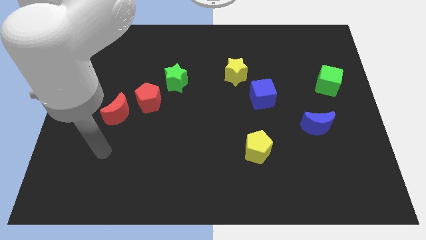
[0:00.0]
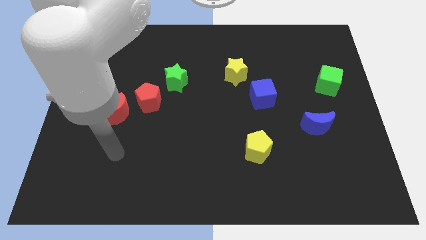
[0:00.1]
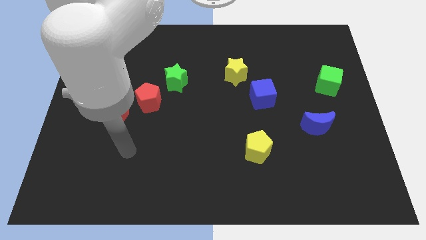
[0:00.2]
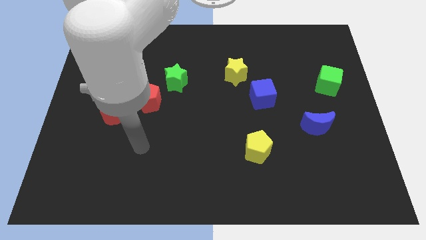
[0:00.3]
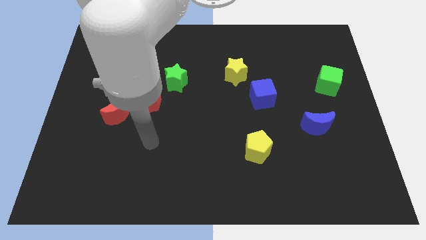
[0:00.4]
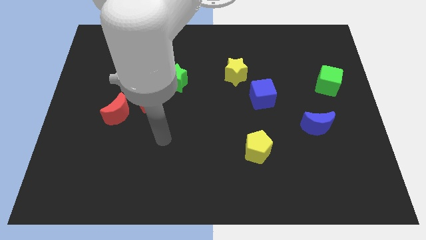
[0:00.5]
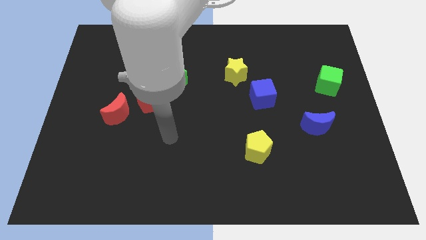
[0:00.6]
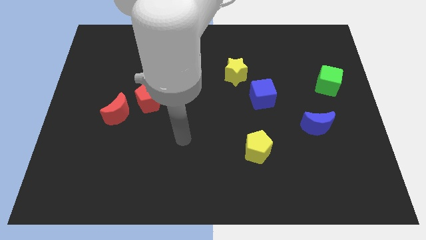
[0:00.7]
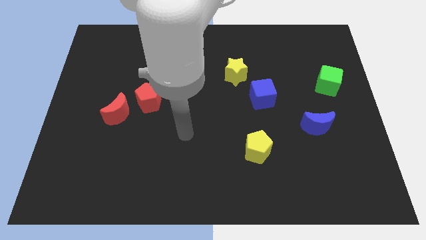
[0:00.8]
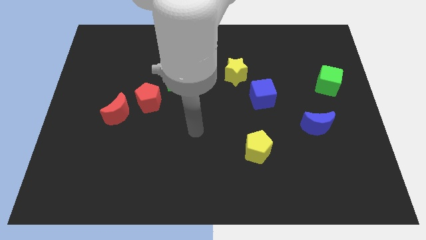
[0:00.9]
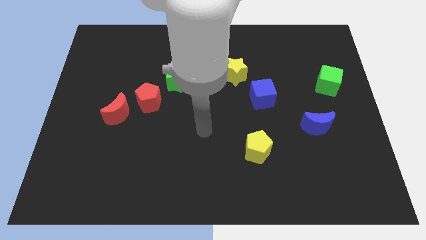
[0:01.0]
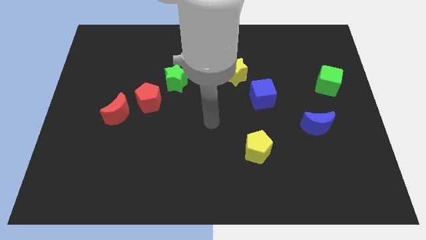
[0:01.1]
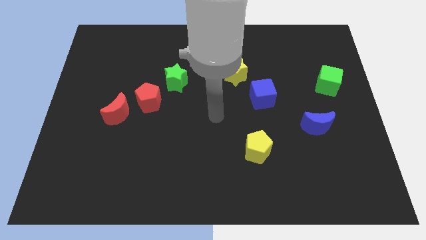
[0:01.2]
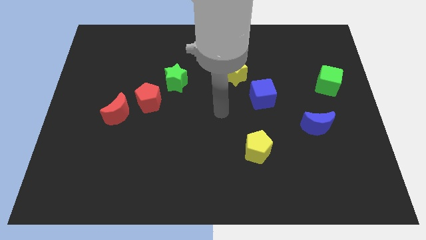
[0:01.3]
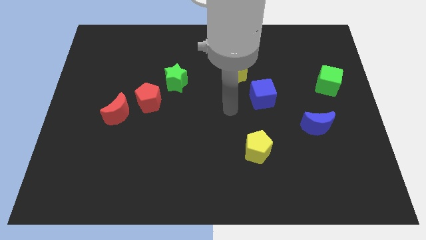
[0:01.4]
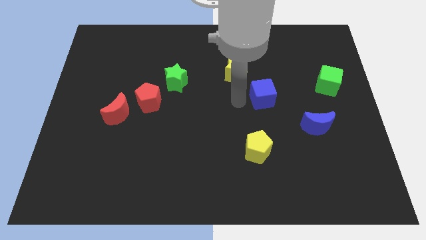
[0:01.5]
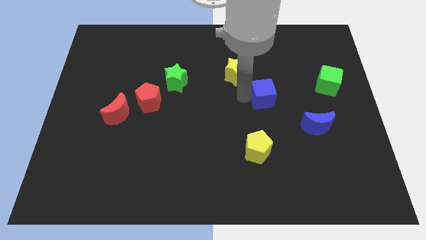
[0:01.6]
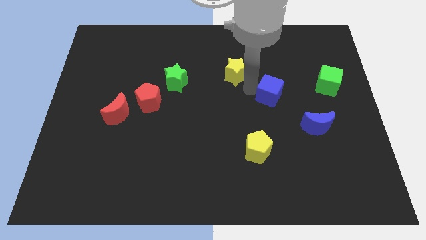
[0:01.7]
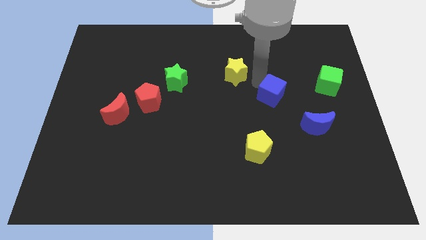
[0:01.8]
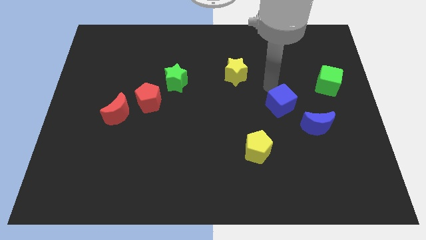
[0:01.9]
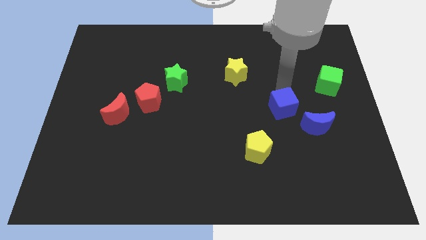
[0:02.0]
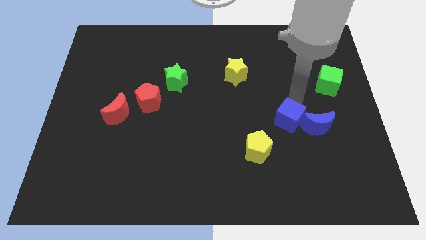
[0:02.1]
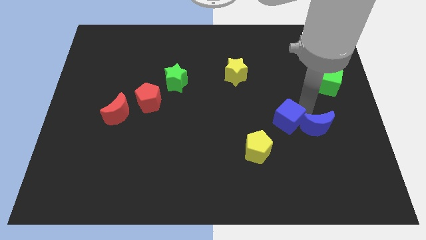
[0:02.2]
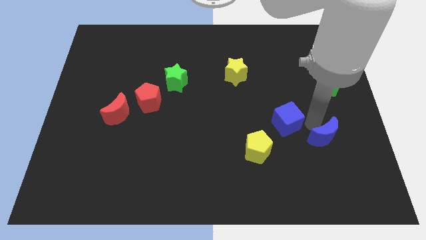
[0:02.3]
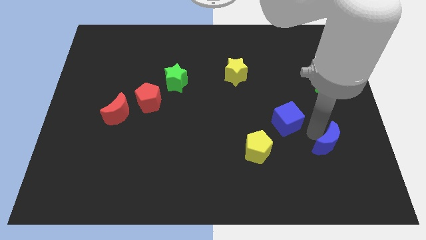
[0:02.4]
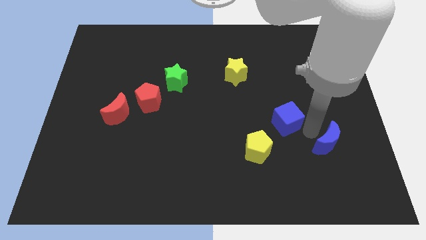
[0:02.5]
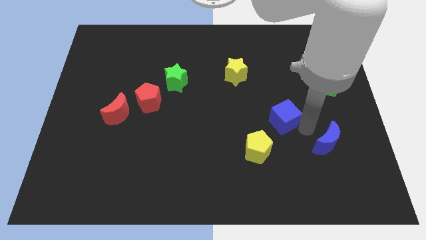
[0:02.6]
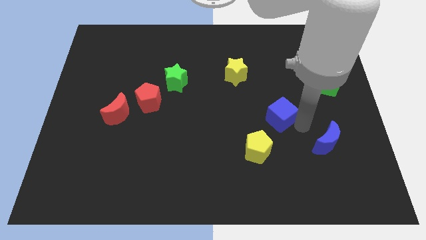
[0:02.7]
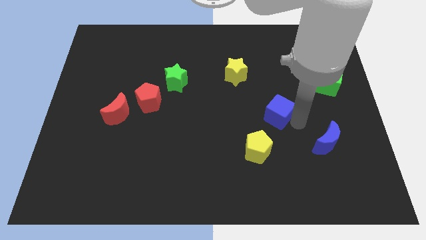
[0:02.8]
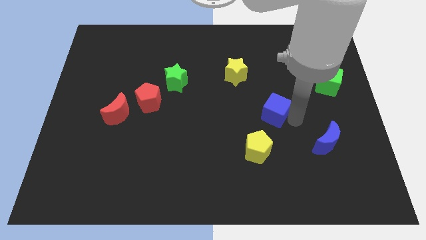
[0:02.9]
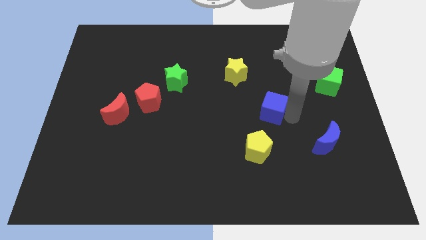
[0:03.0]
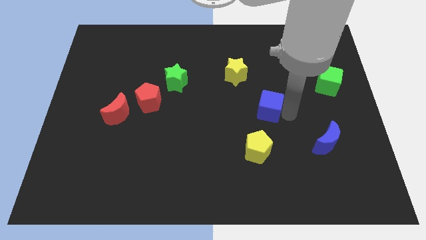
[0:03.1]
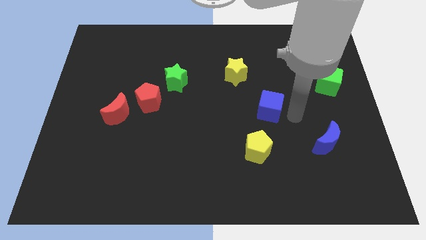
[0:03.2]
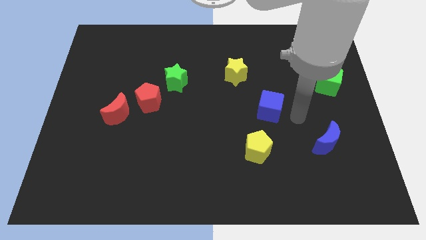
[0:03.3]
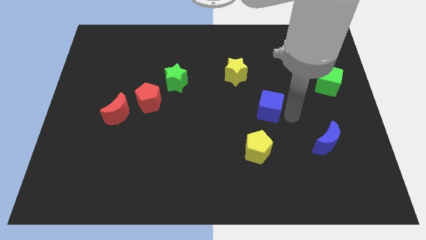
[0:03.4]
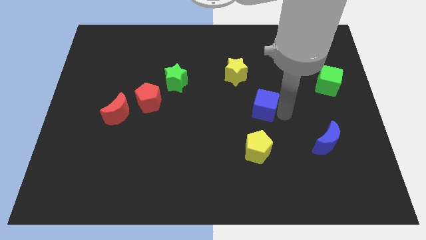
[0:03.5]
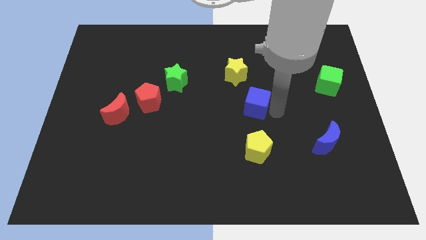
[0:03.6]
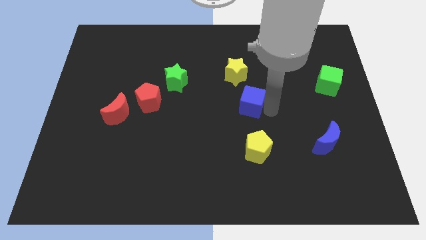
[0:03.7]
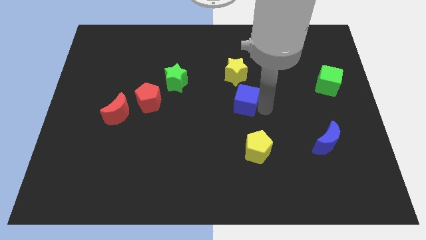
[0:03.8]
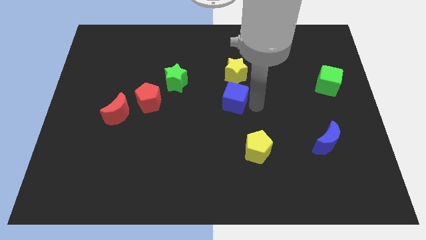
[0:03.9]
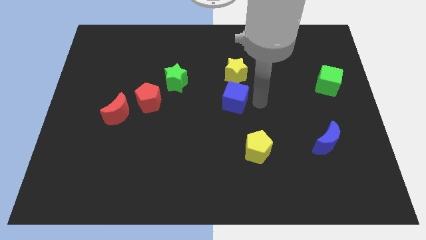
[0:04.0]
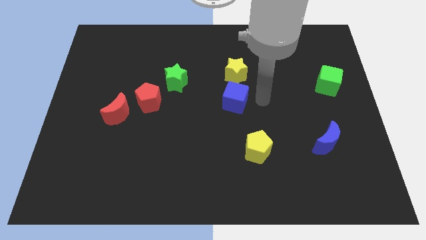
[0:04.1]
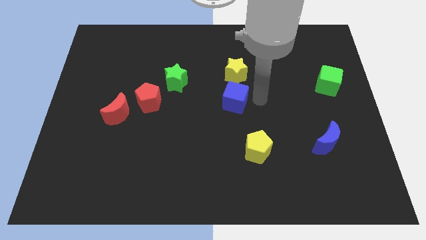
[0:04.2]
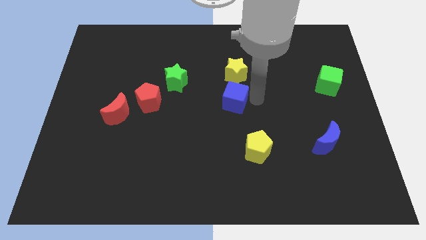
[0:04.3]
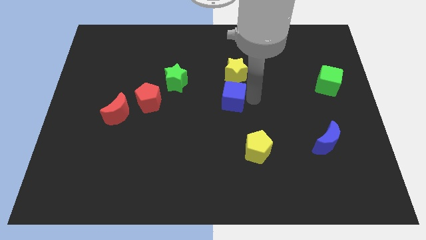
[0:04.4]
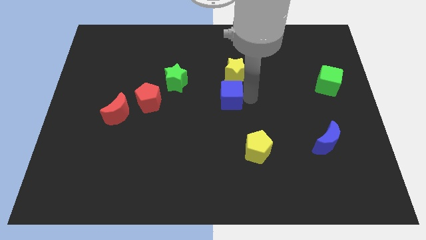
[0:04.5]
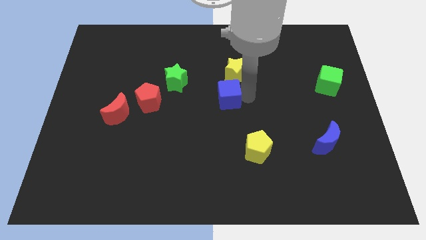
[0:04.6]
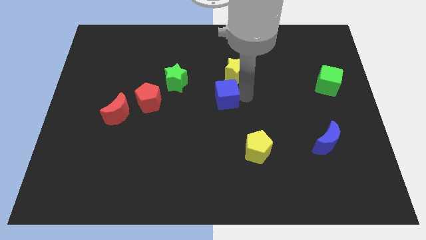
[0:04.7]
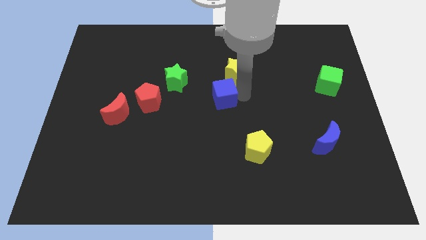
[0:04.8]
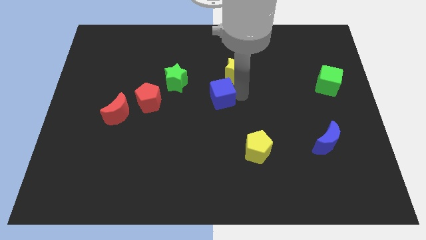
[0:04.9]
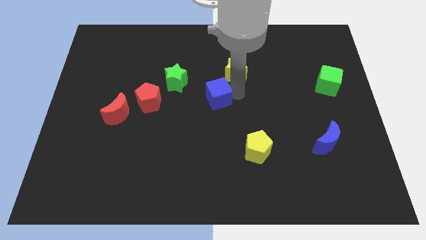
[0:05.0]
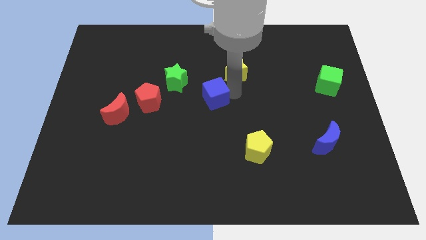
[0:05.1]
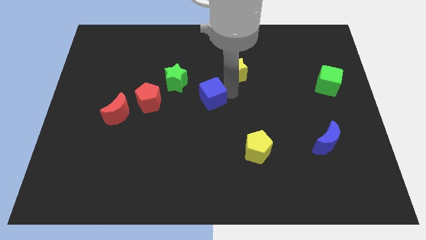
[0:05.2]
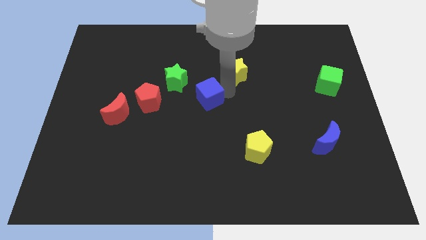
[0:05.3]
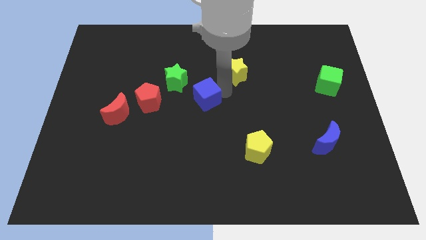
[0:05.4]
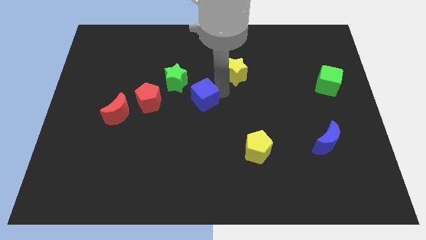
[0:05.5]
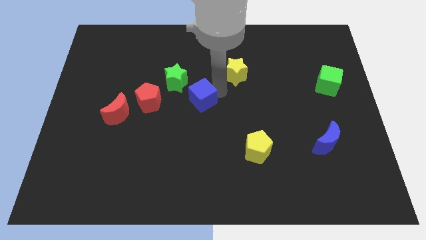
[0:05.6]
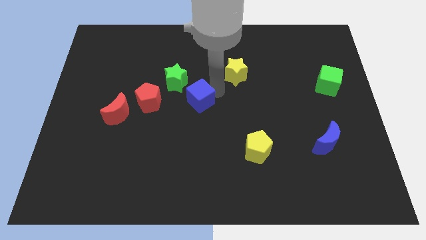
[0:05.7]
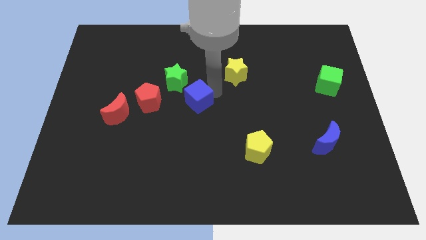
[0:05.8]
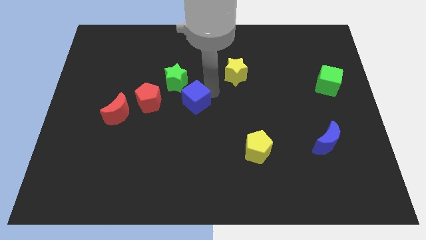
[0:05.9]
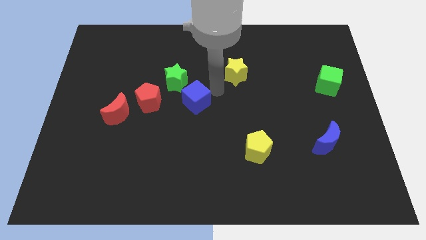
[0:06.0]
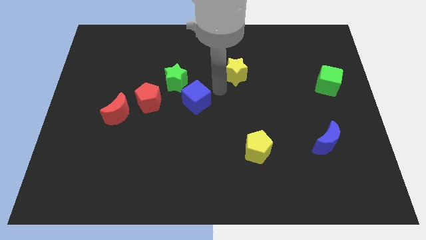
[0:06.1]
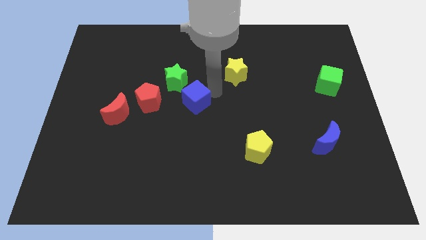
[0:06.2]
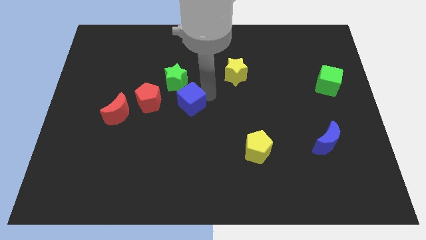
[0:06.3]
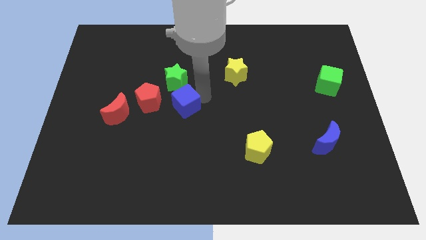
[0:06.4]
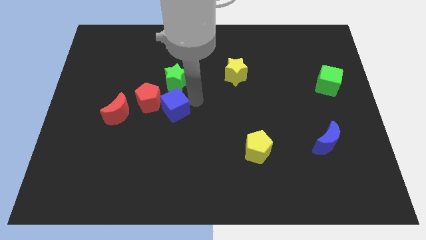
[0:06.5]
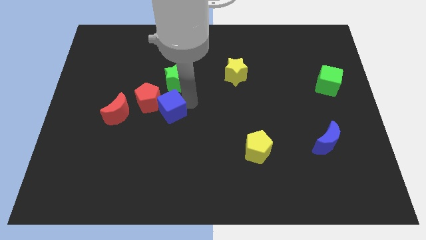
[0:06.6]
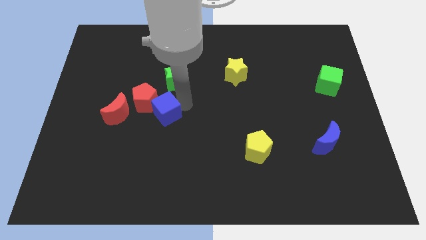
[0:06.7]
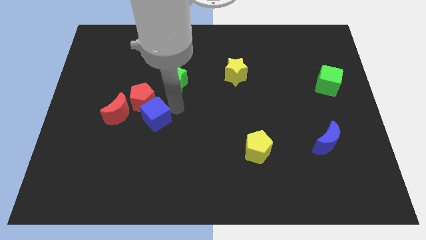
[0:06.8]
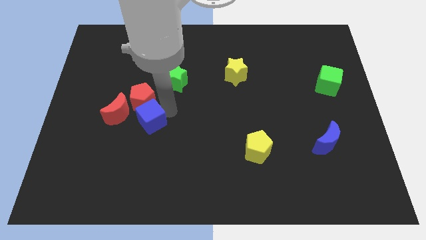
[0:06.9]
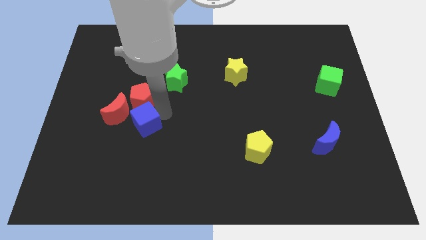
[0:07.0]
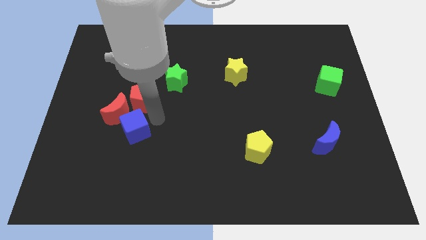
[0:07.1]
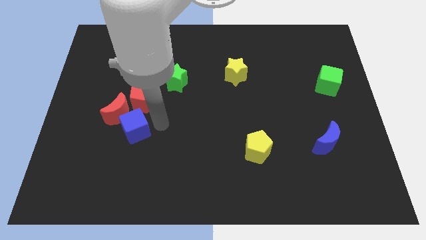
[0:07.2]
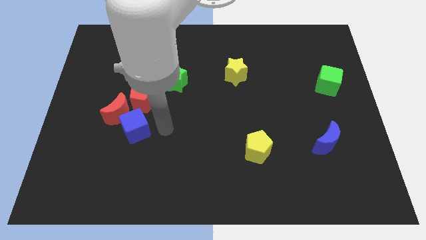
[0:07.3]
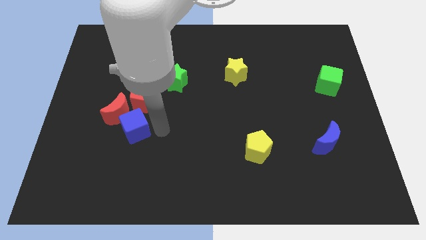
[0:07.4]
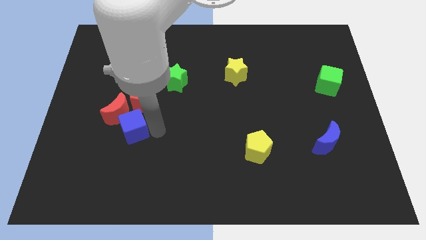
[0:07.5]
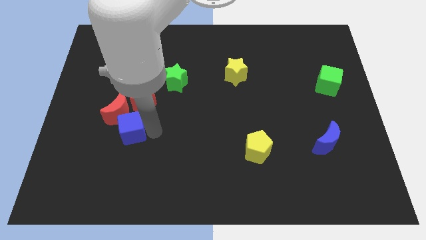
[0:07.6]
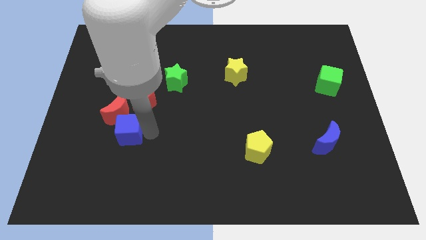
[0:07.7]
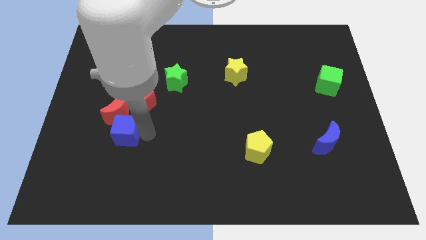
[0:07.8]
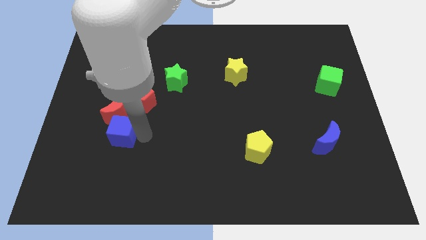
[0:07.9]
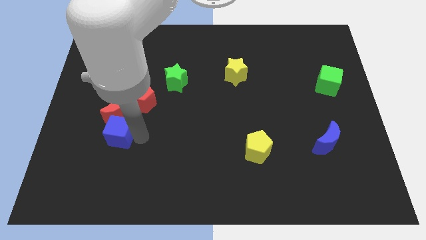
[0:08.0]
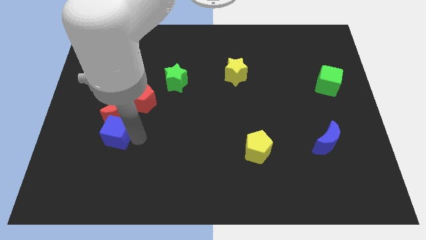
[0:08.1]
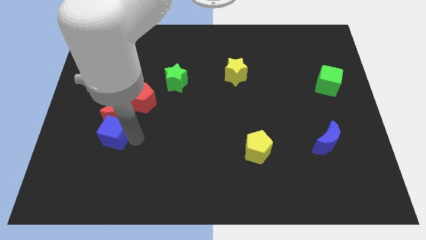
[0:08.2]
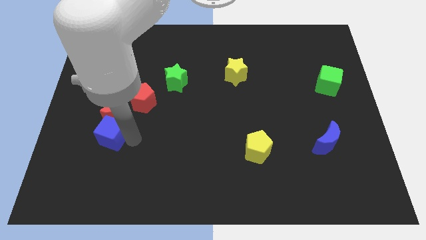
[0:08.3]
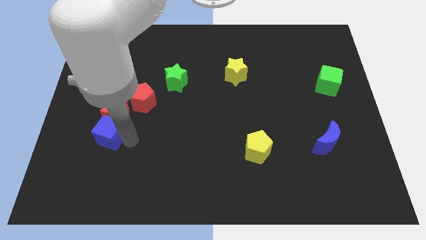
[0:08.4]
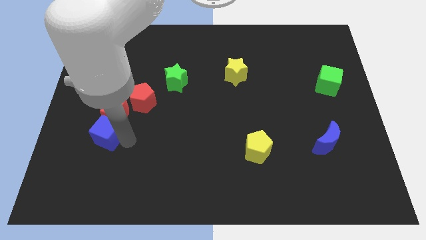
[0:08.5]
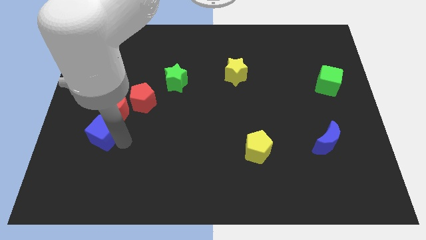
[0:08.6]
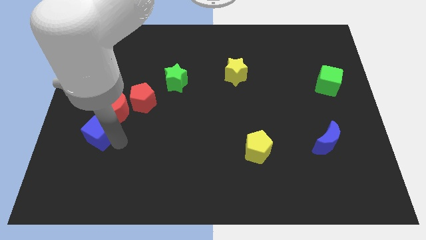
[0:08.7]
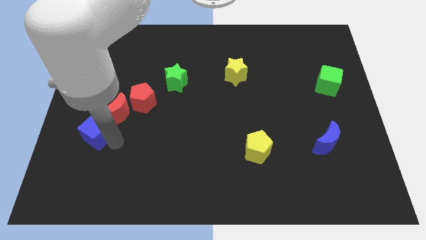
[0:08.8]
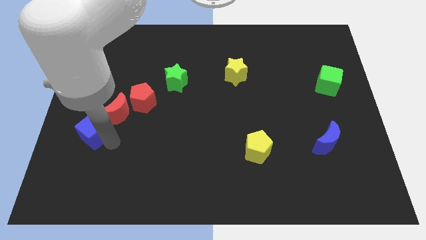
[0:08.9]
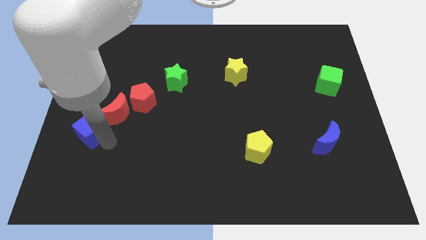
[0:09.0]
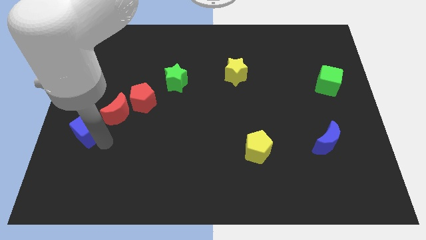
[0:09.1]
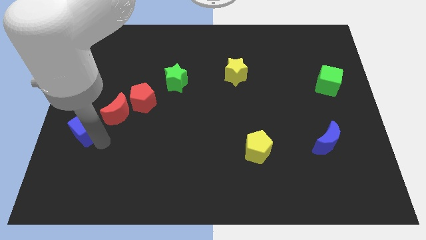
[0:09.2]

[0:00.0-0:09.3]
push the blue cube to the left side of the board
